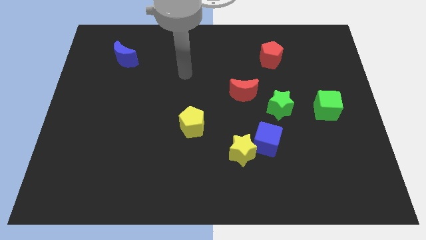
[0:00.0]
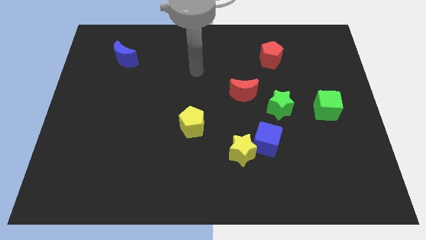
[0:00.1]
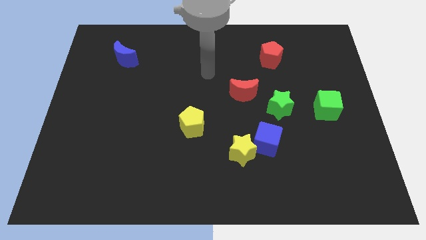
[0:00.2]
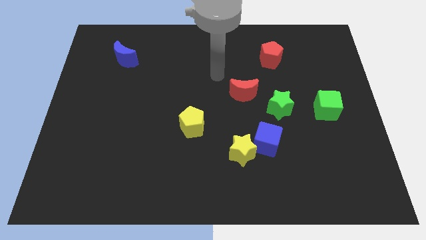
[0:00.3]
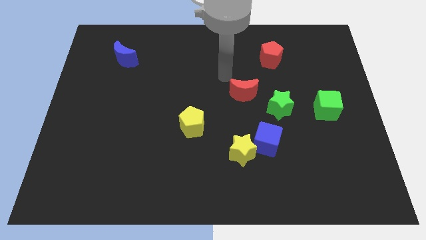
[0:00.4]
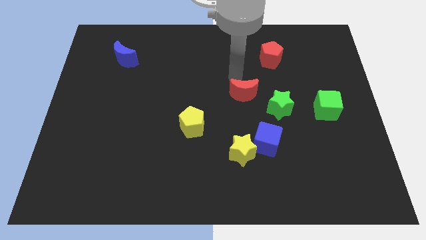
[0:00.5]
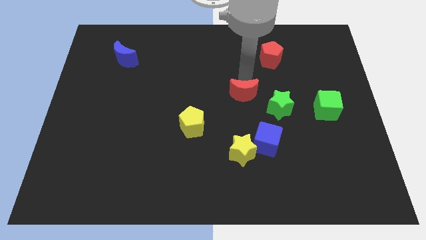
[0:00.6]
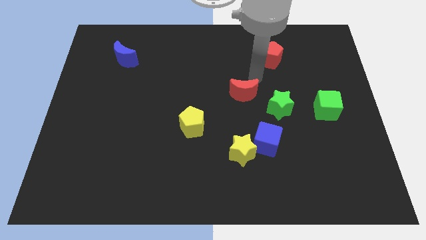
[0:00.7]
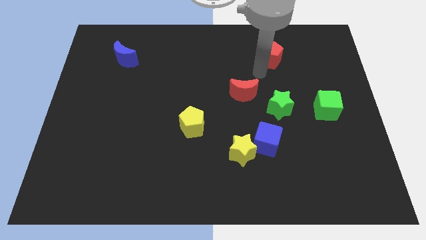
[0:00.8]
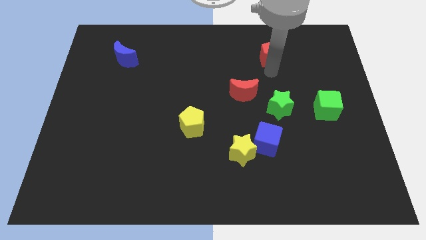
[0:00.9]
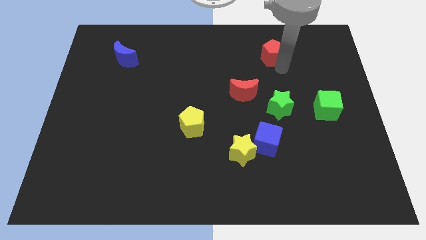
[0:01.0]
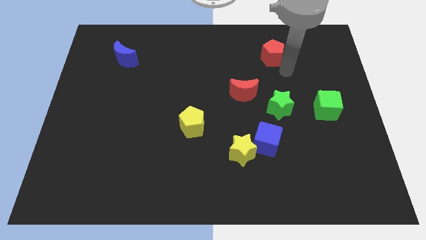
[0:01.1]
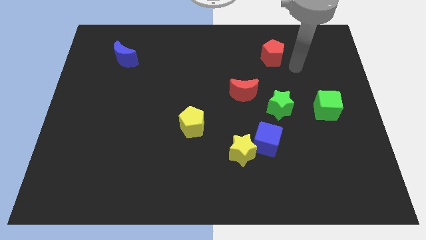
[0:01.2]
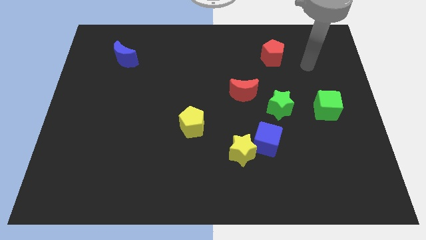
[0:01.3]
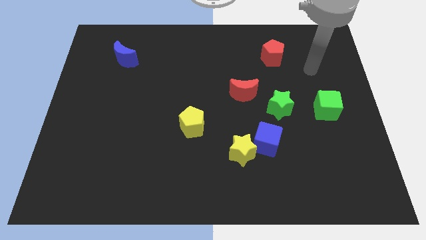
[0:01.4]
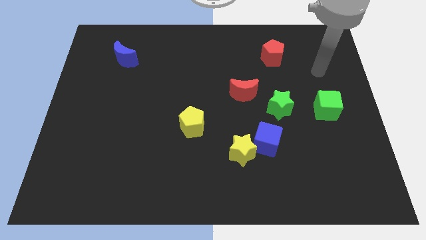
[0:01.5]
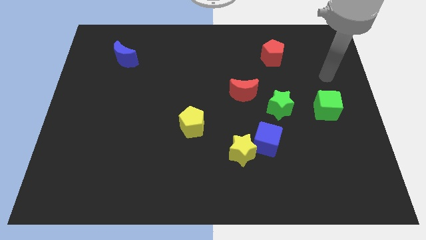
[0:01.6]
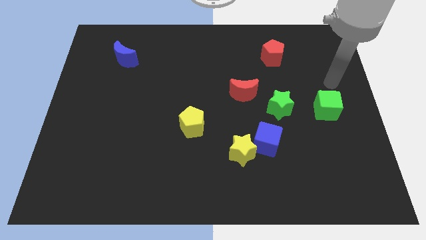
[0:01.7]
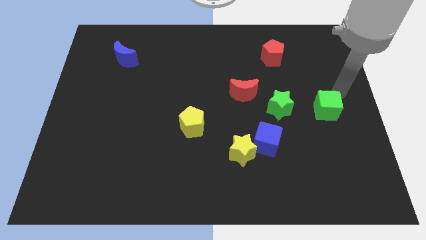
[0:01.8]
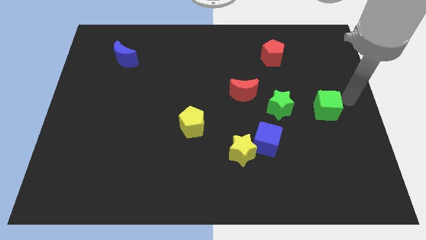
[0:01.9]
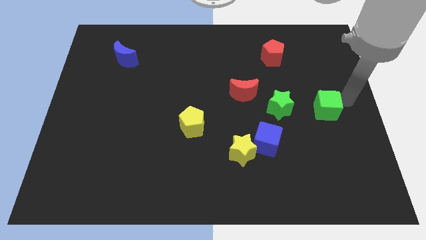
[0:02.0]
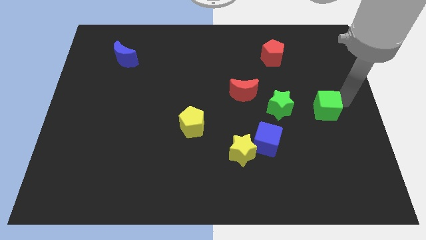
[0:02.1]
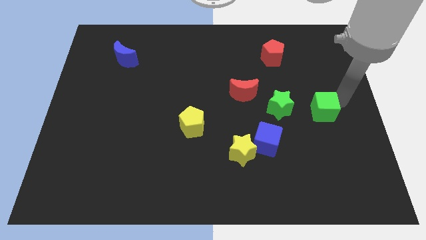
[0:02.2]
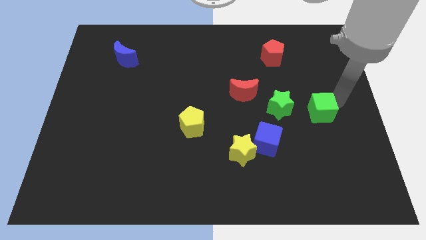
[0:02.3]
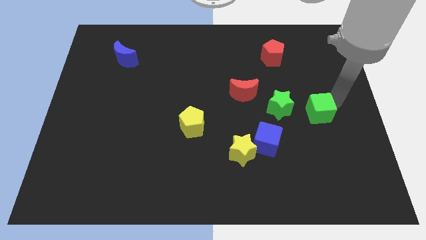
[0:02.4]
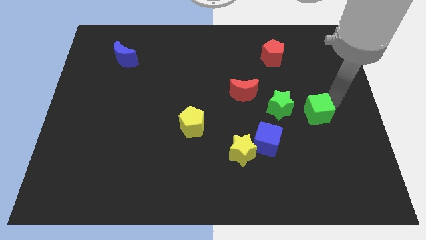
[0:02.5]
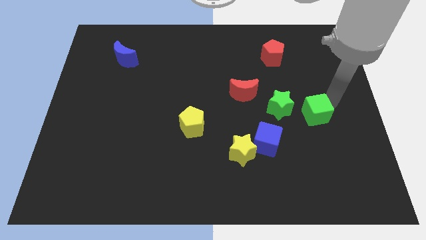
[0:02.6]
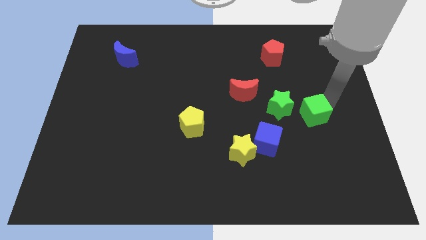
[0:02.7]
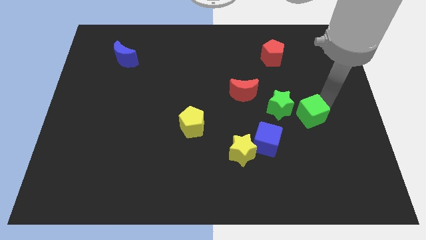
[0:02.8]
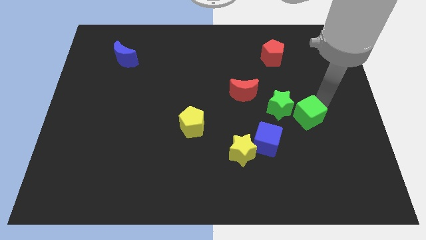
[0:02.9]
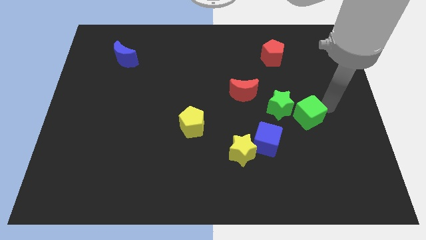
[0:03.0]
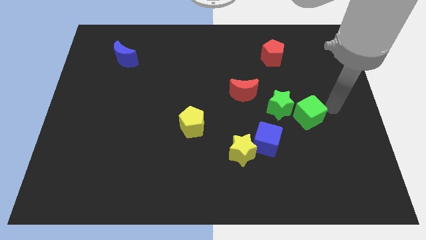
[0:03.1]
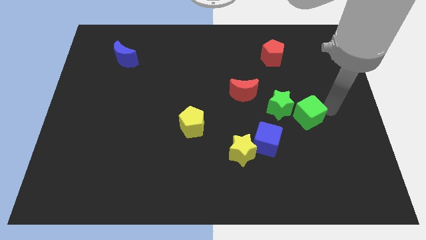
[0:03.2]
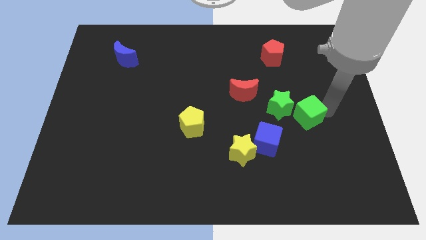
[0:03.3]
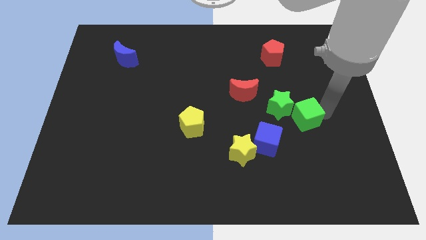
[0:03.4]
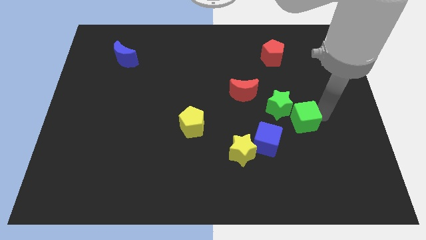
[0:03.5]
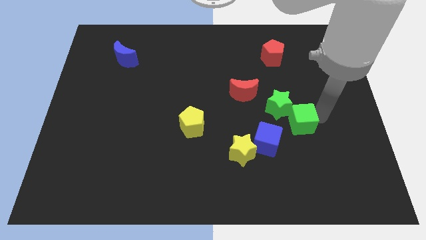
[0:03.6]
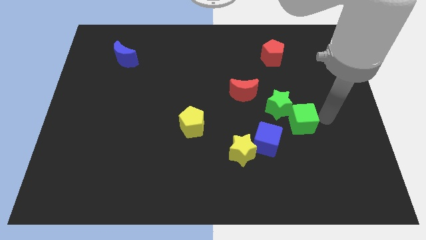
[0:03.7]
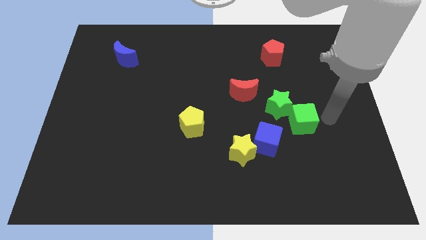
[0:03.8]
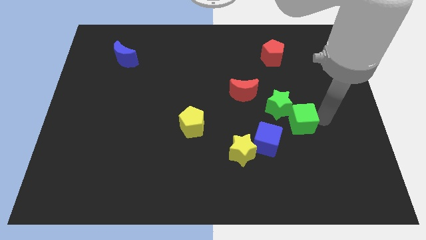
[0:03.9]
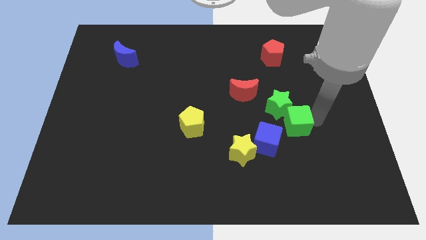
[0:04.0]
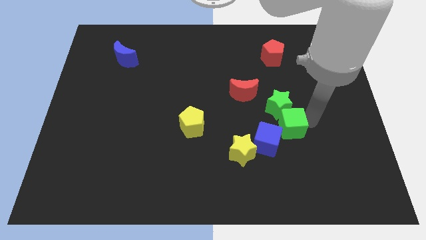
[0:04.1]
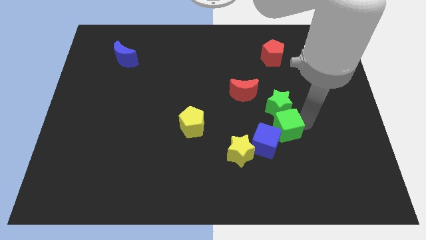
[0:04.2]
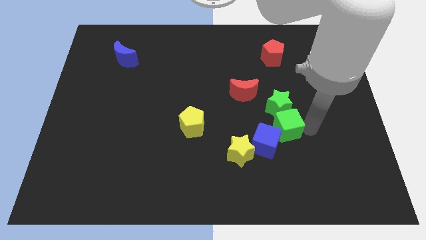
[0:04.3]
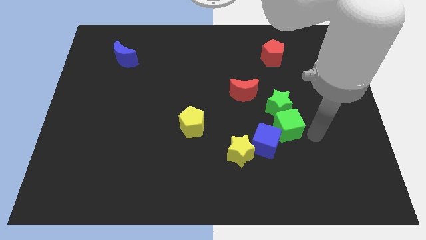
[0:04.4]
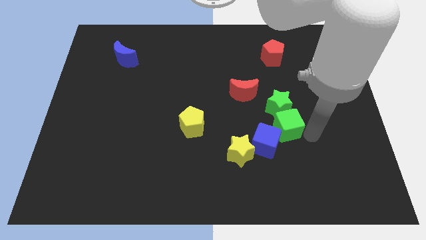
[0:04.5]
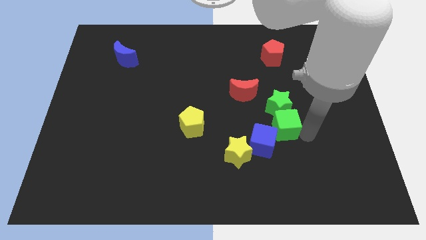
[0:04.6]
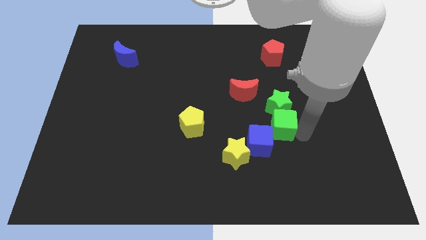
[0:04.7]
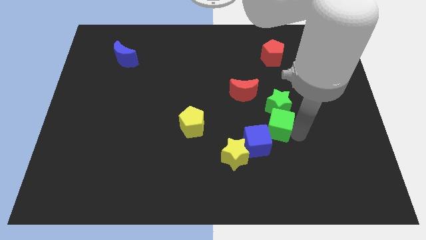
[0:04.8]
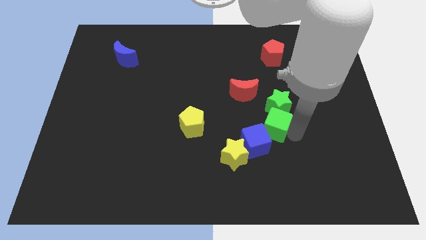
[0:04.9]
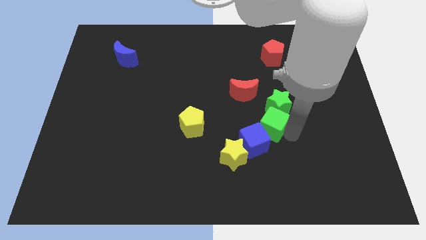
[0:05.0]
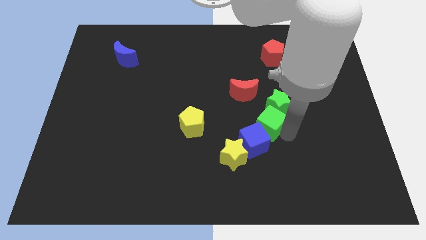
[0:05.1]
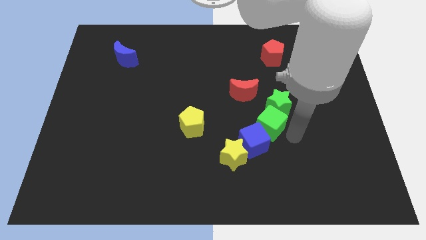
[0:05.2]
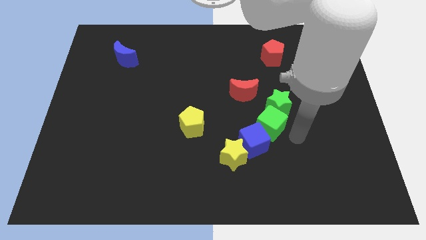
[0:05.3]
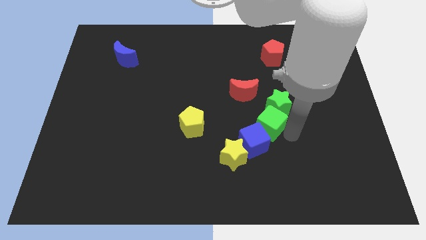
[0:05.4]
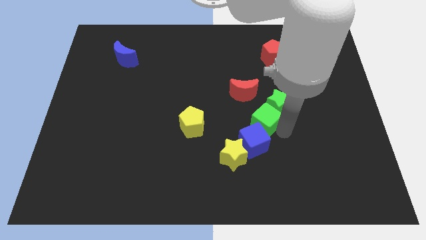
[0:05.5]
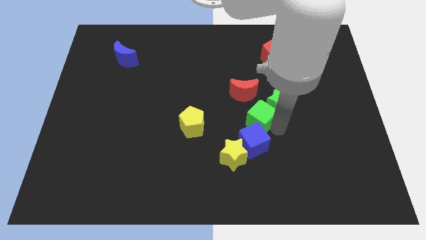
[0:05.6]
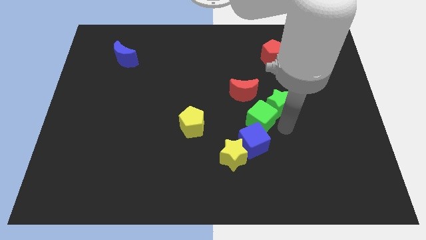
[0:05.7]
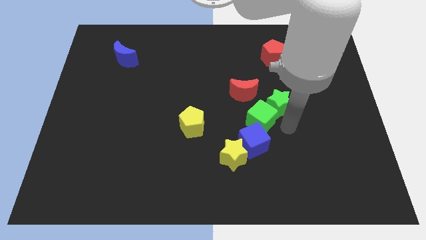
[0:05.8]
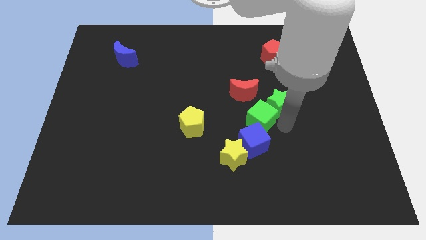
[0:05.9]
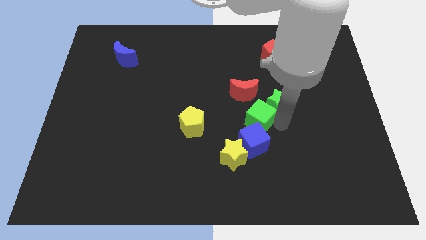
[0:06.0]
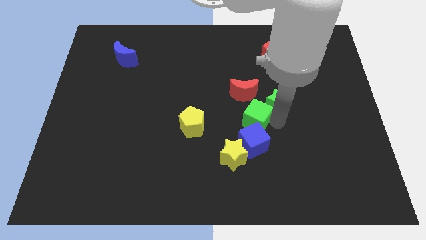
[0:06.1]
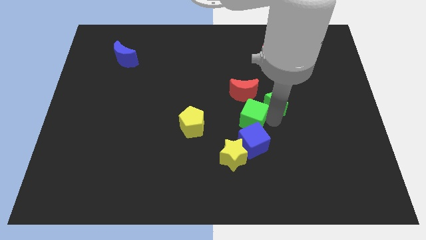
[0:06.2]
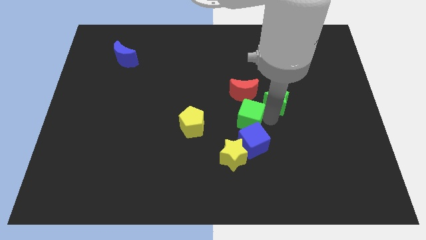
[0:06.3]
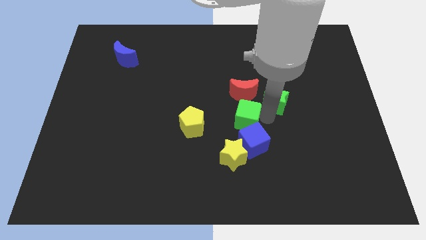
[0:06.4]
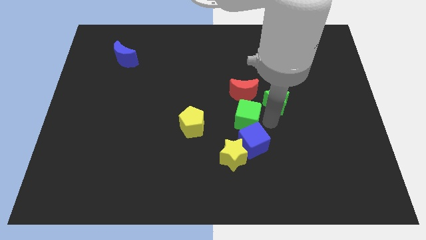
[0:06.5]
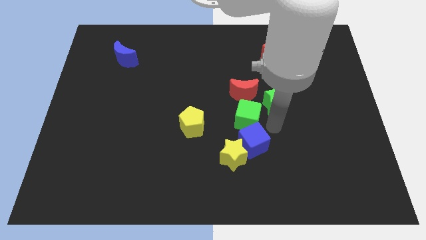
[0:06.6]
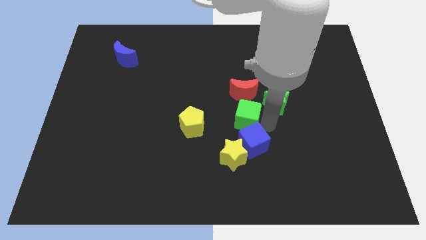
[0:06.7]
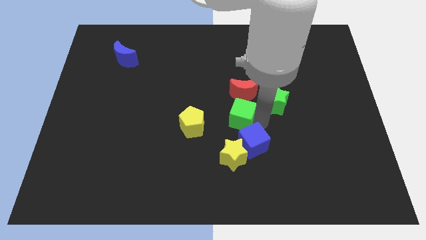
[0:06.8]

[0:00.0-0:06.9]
push the green cube to the bottom left side of the red moon
